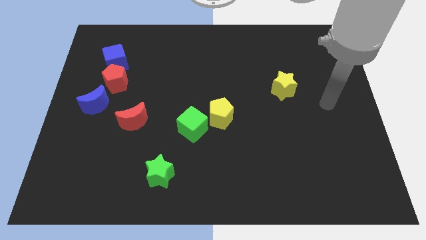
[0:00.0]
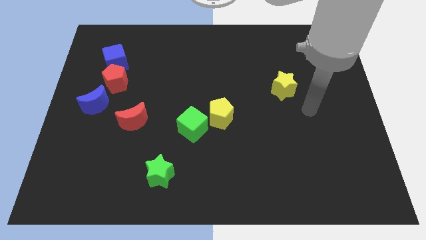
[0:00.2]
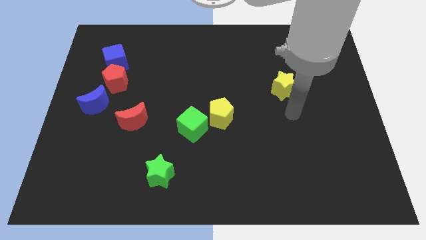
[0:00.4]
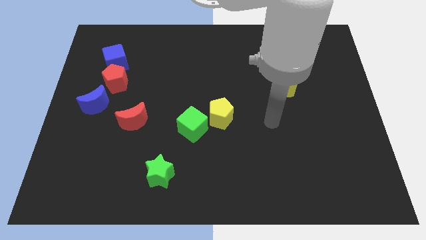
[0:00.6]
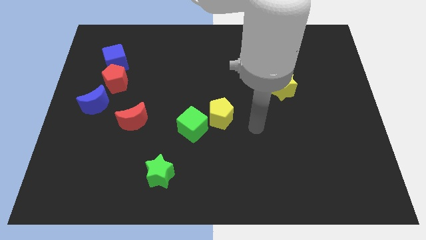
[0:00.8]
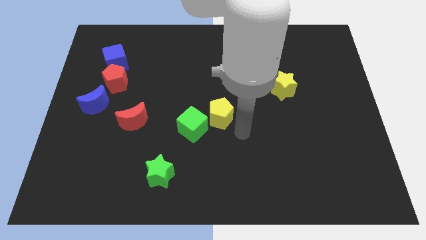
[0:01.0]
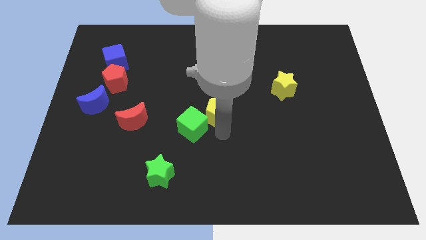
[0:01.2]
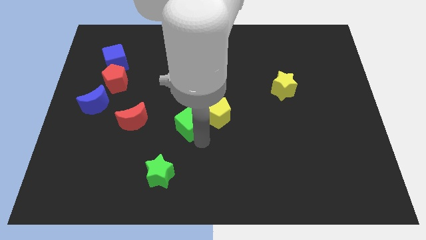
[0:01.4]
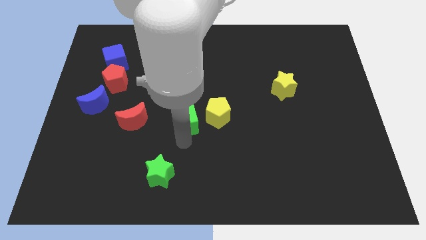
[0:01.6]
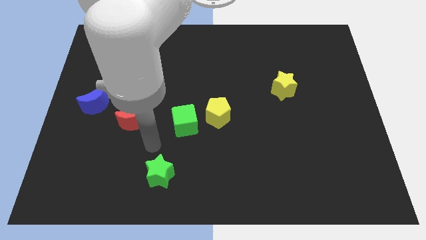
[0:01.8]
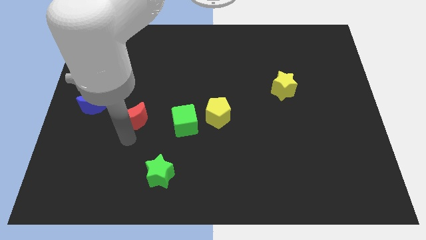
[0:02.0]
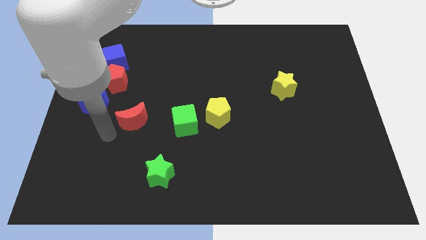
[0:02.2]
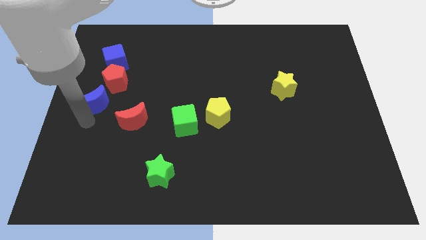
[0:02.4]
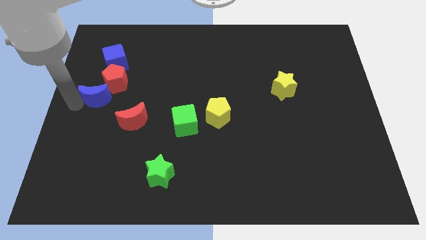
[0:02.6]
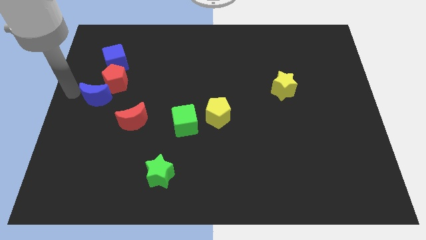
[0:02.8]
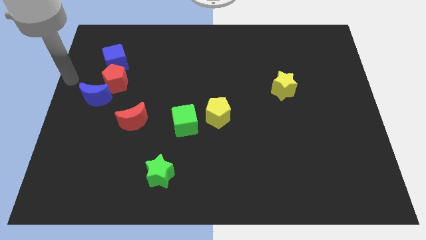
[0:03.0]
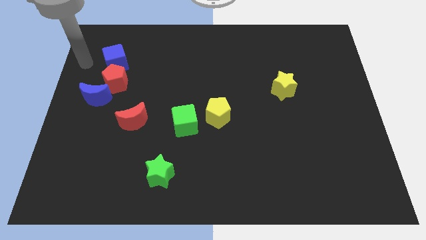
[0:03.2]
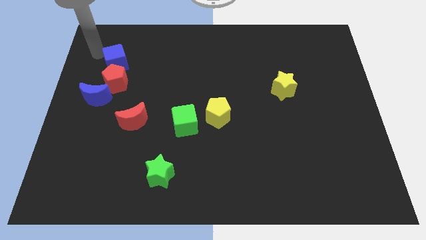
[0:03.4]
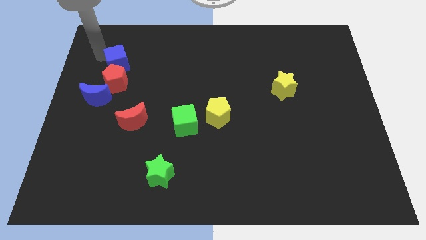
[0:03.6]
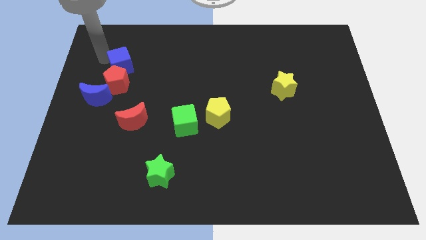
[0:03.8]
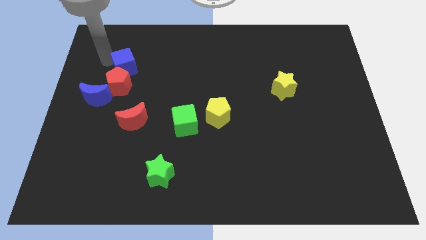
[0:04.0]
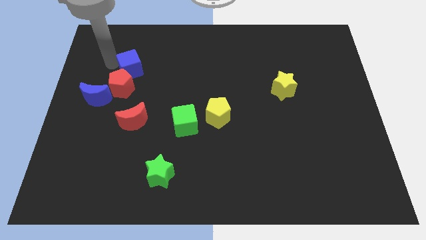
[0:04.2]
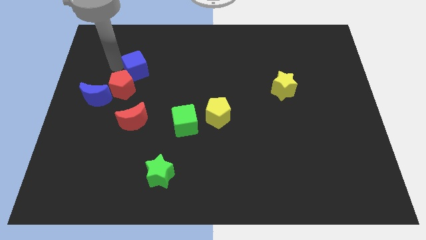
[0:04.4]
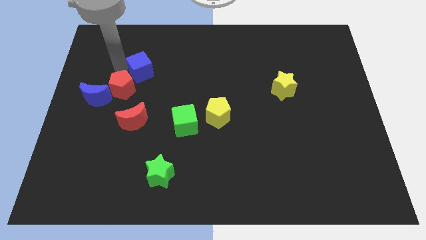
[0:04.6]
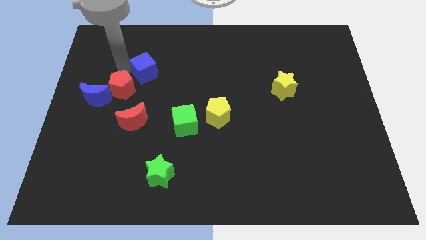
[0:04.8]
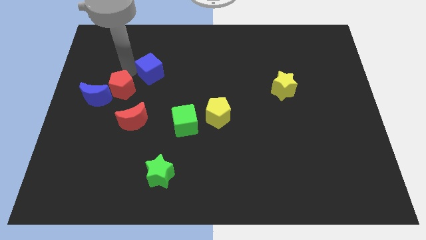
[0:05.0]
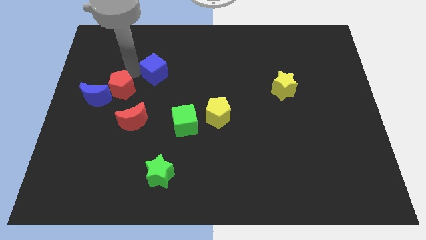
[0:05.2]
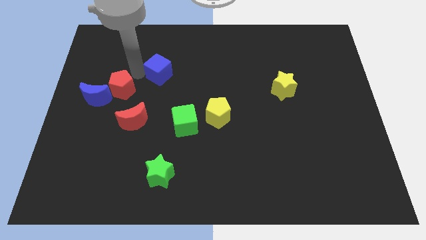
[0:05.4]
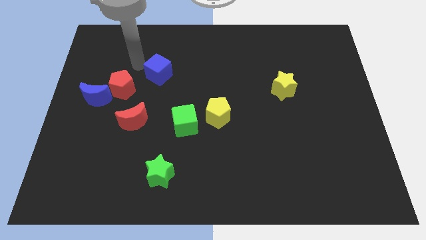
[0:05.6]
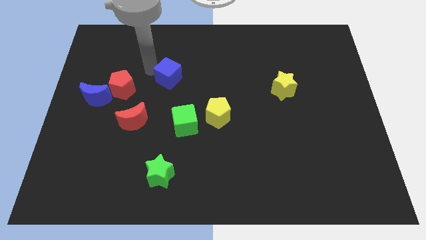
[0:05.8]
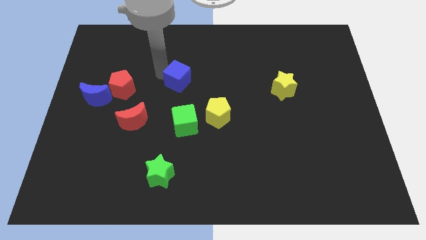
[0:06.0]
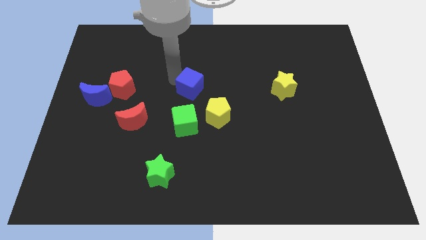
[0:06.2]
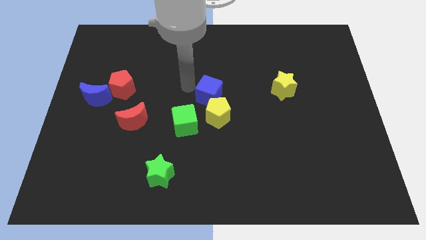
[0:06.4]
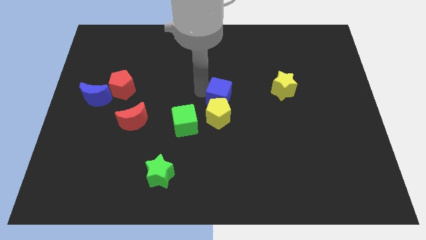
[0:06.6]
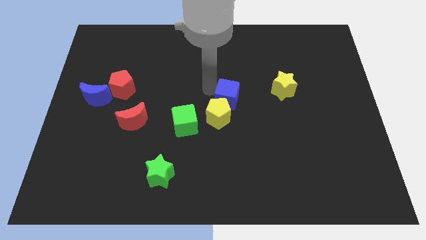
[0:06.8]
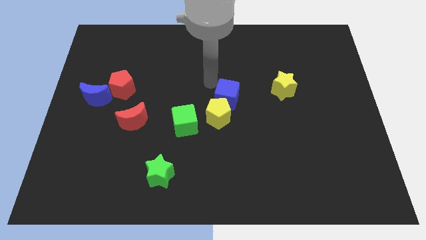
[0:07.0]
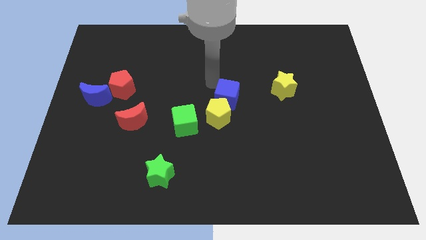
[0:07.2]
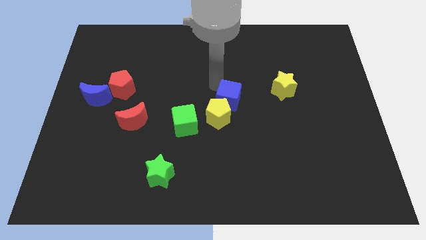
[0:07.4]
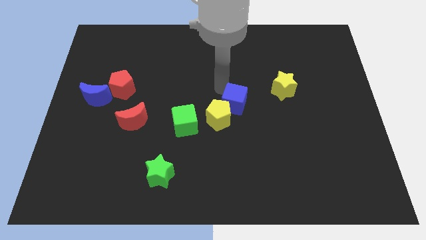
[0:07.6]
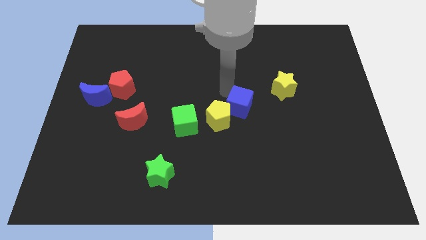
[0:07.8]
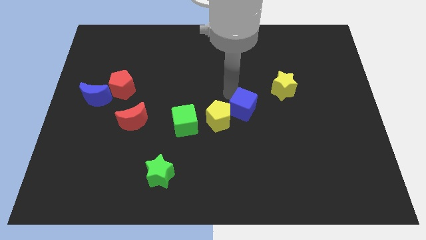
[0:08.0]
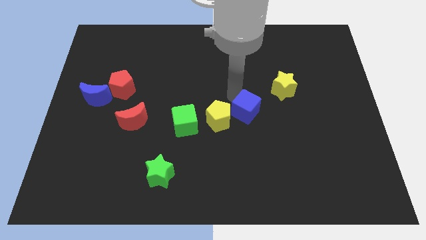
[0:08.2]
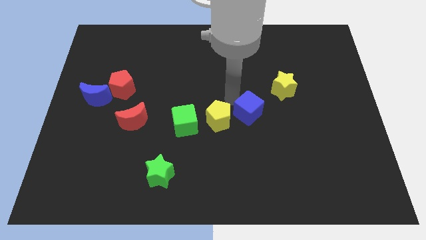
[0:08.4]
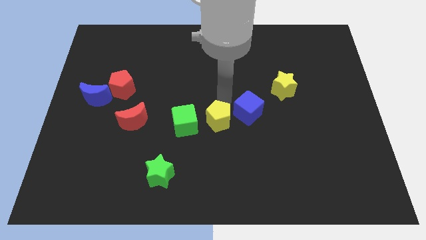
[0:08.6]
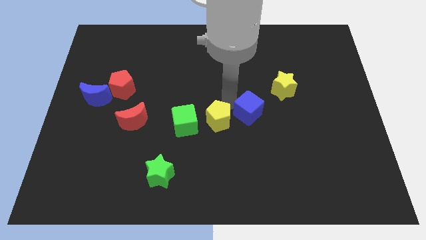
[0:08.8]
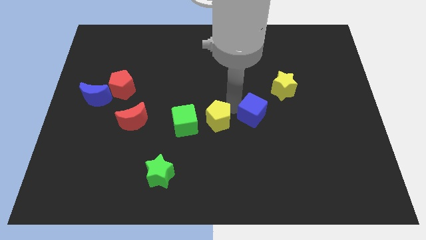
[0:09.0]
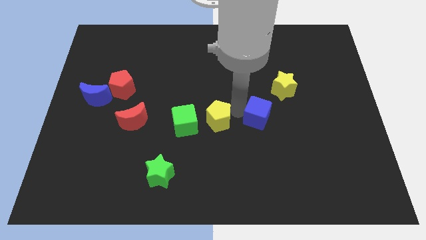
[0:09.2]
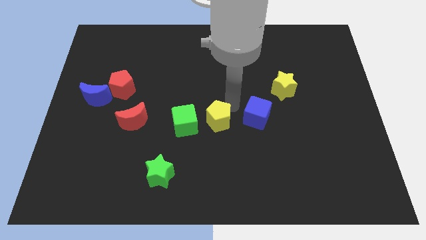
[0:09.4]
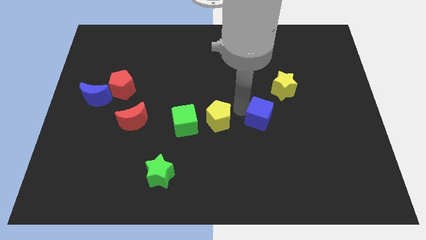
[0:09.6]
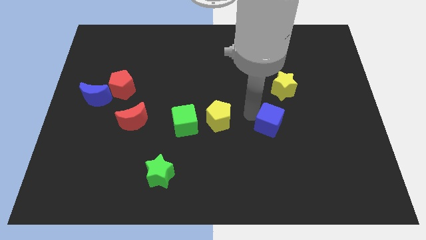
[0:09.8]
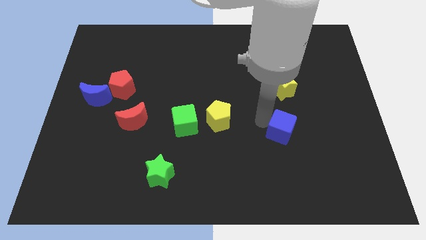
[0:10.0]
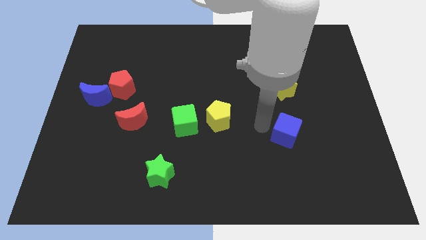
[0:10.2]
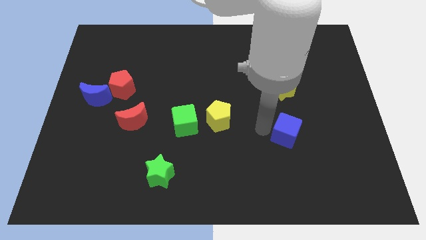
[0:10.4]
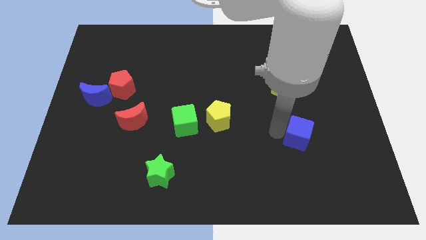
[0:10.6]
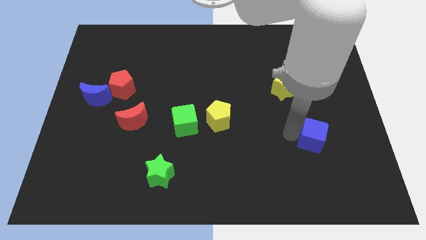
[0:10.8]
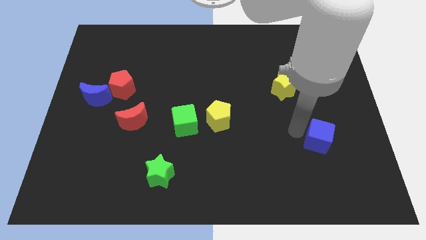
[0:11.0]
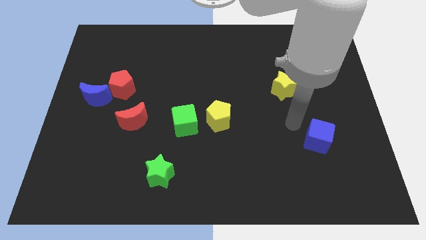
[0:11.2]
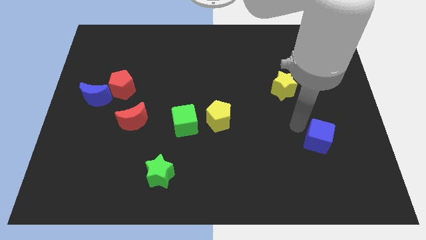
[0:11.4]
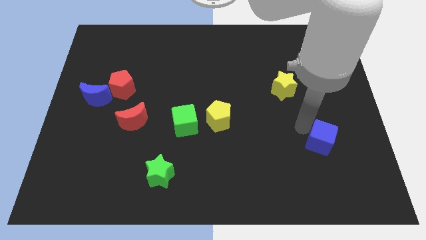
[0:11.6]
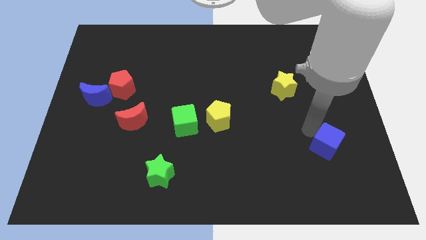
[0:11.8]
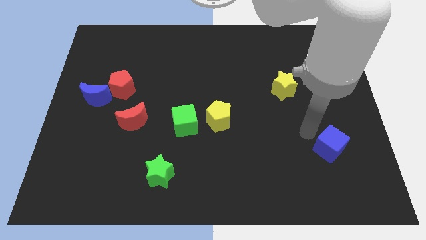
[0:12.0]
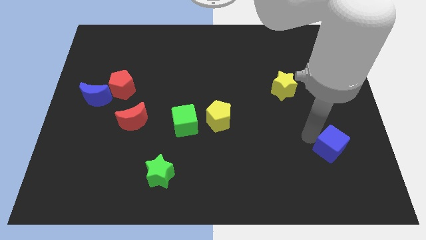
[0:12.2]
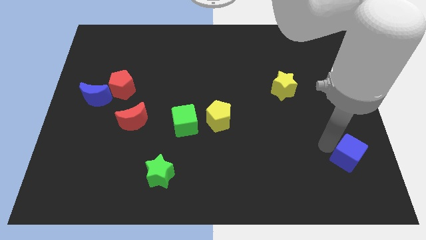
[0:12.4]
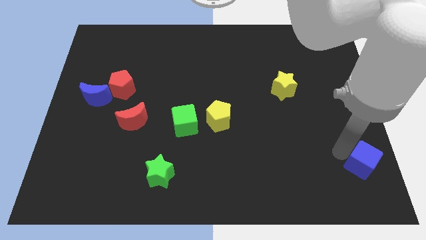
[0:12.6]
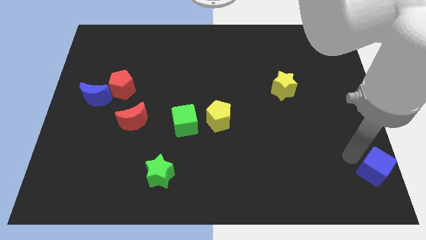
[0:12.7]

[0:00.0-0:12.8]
slide the blue cube to the bottom right of the board

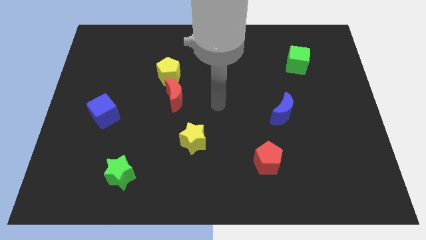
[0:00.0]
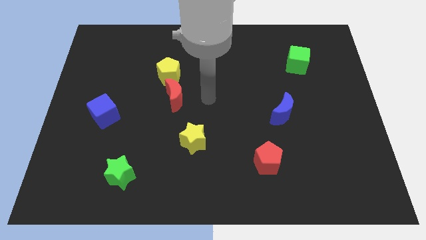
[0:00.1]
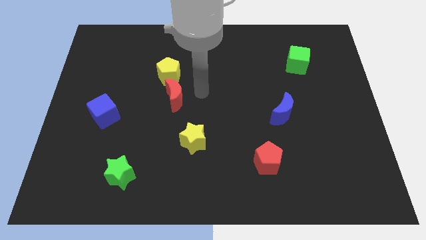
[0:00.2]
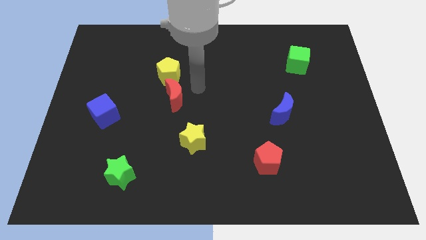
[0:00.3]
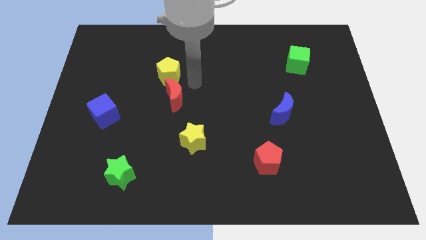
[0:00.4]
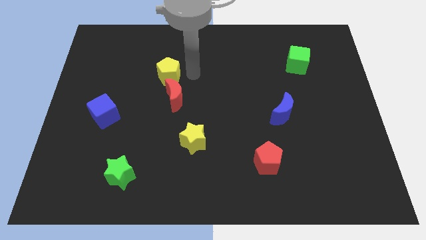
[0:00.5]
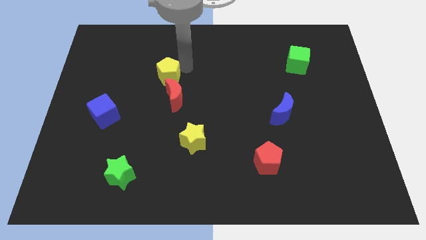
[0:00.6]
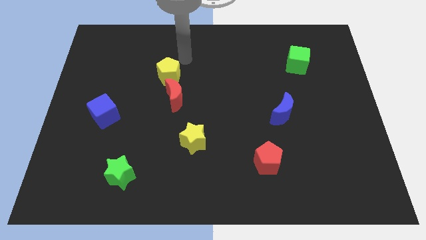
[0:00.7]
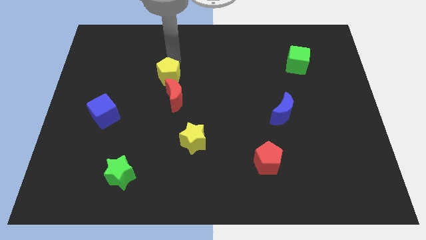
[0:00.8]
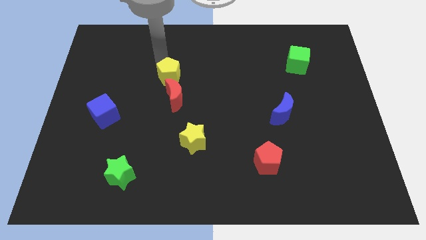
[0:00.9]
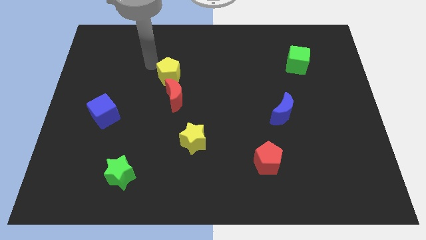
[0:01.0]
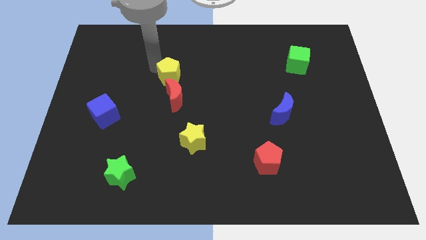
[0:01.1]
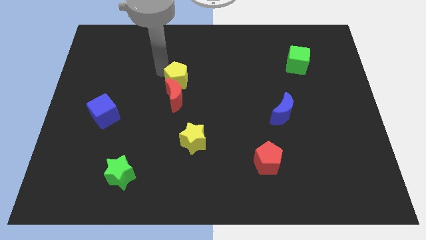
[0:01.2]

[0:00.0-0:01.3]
put the yellow pentagon to the middle of the board
